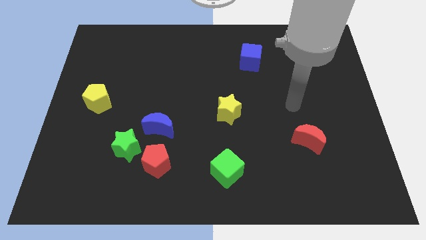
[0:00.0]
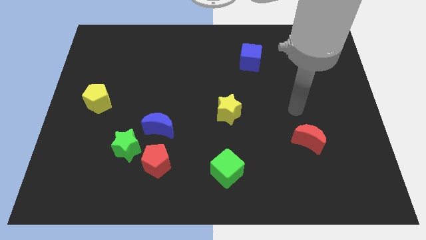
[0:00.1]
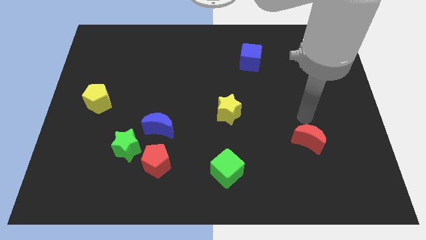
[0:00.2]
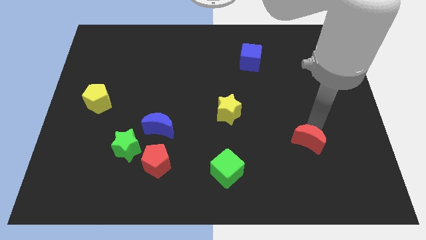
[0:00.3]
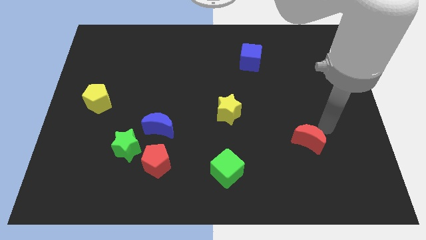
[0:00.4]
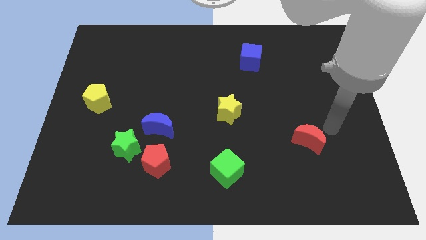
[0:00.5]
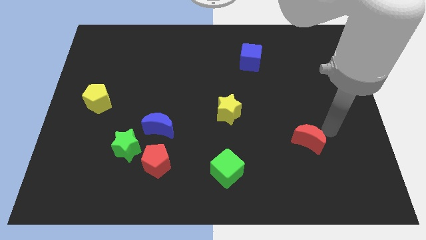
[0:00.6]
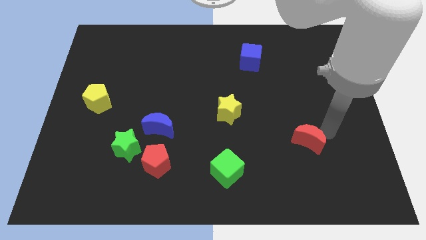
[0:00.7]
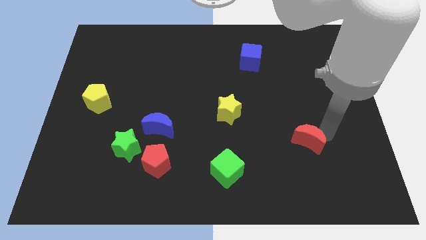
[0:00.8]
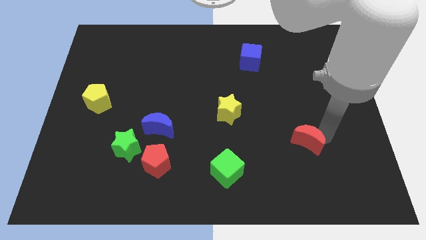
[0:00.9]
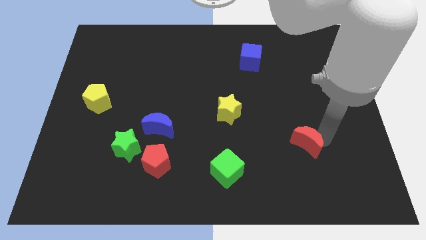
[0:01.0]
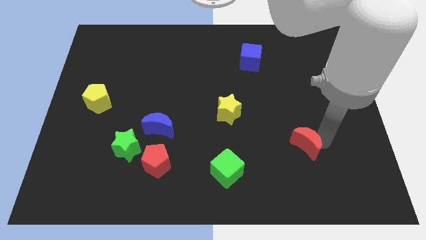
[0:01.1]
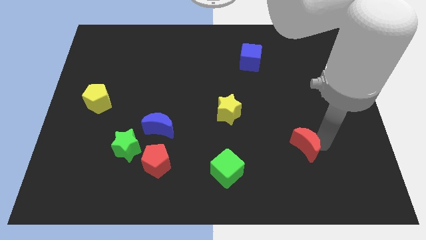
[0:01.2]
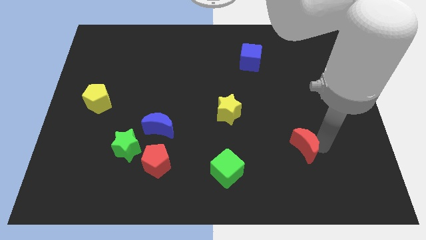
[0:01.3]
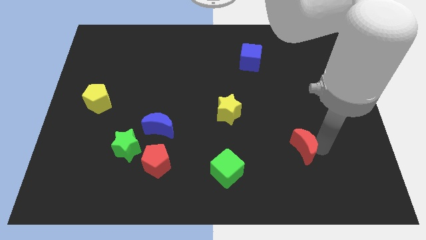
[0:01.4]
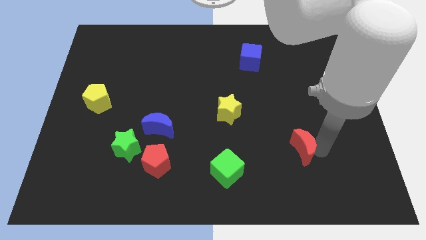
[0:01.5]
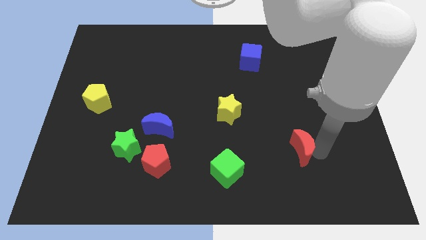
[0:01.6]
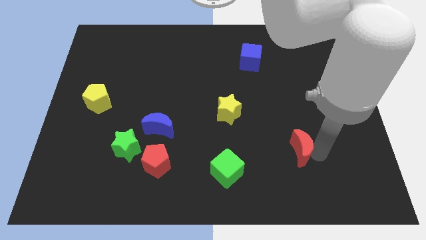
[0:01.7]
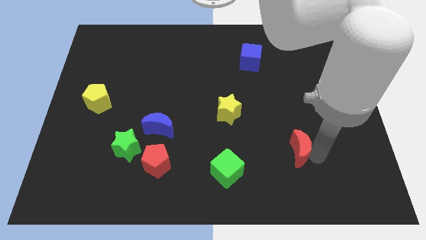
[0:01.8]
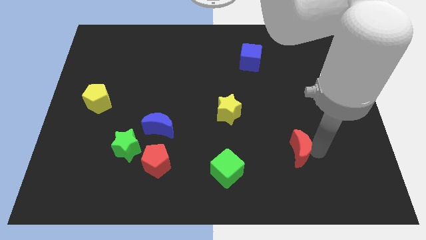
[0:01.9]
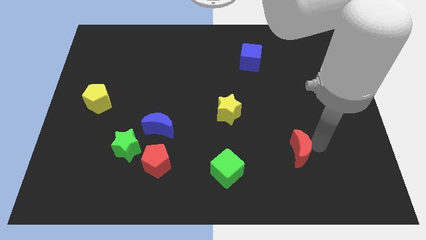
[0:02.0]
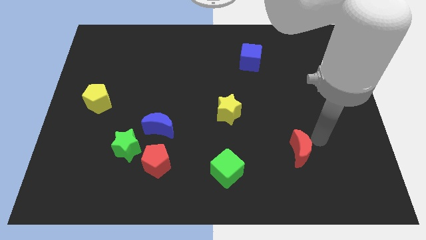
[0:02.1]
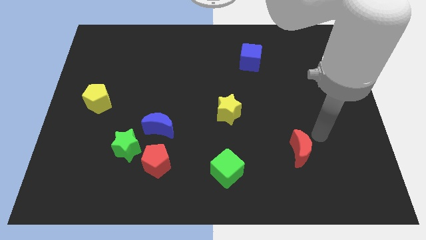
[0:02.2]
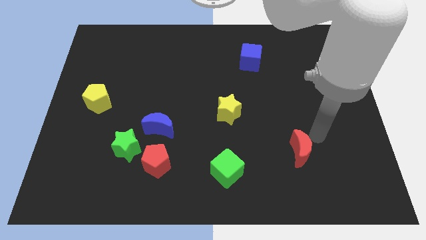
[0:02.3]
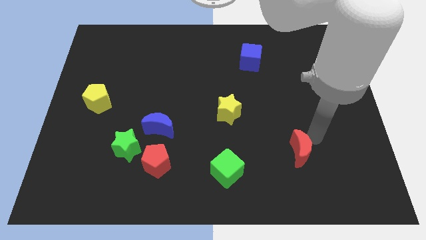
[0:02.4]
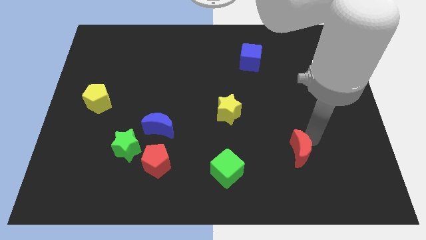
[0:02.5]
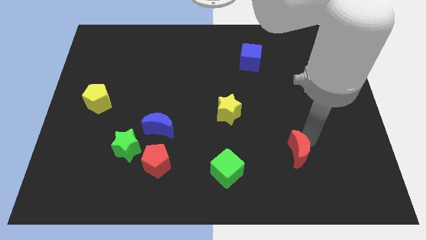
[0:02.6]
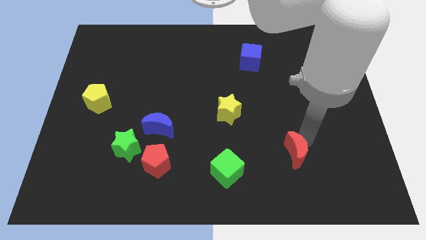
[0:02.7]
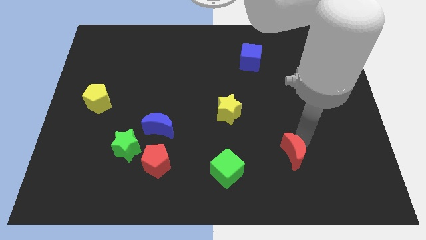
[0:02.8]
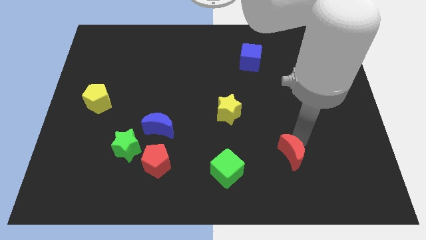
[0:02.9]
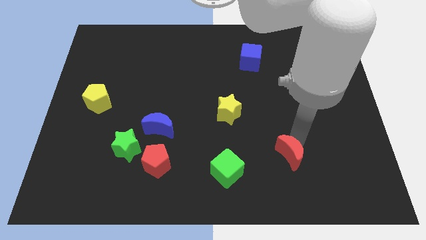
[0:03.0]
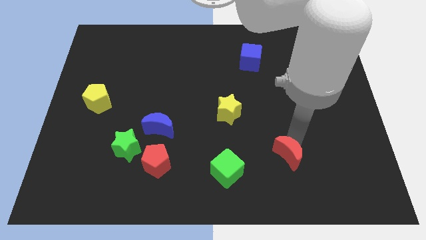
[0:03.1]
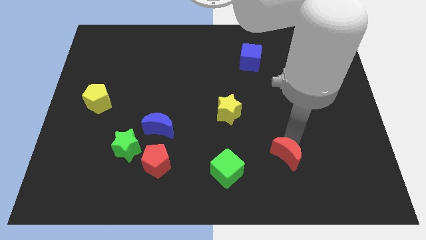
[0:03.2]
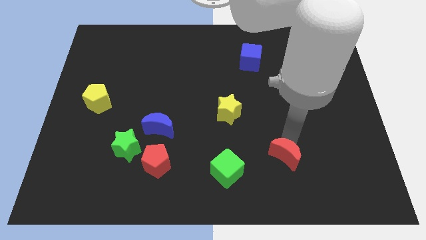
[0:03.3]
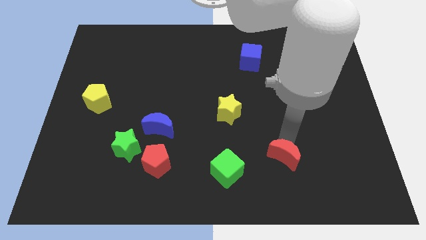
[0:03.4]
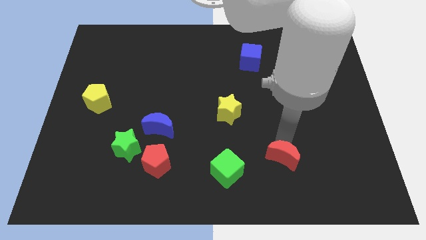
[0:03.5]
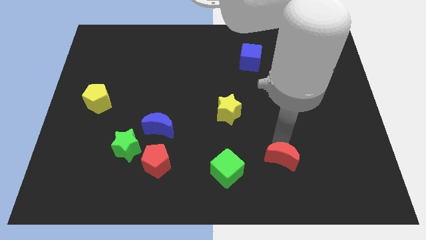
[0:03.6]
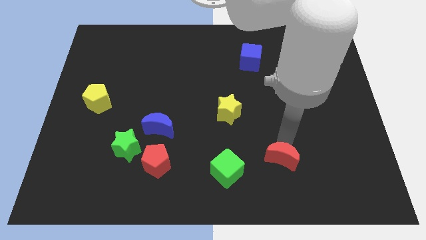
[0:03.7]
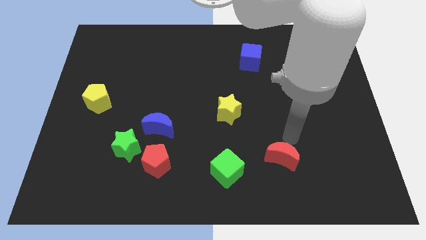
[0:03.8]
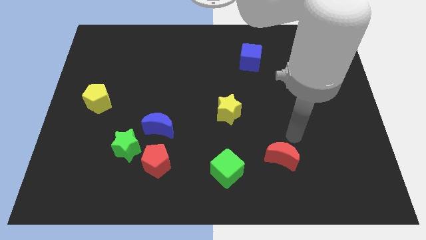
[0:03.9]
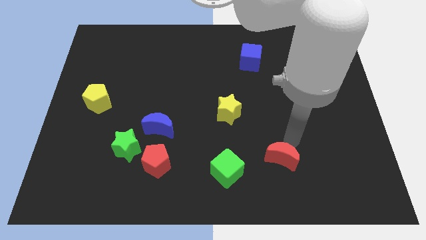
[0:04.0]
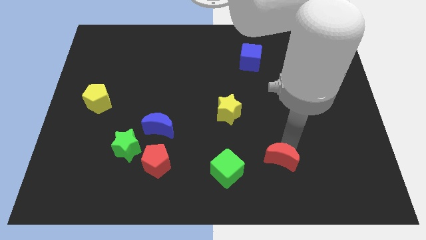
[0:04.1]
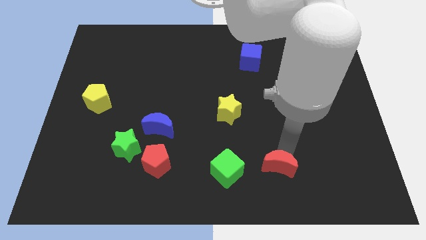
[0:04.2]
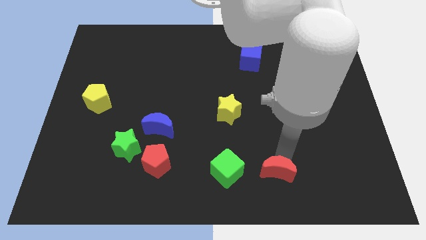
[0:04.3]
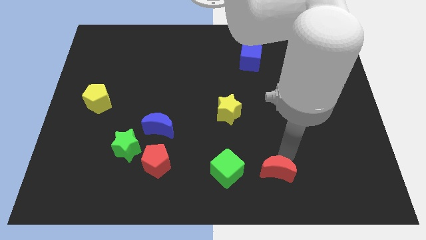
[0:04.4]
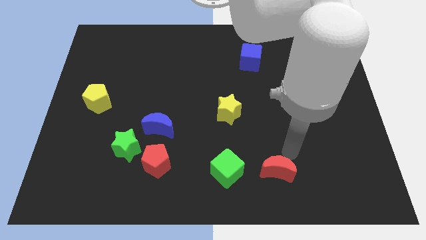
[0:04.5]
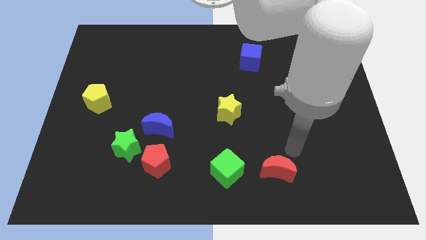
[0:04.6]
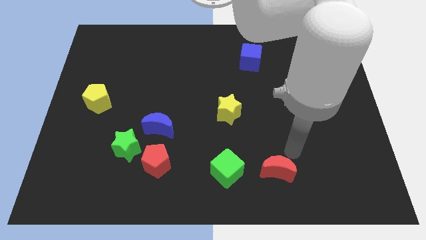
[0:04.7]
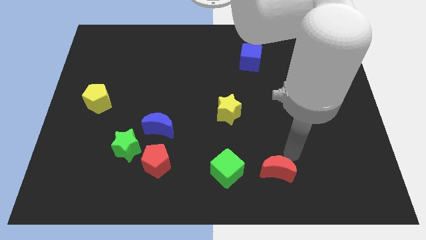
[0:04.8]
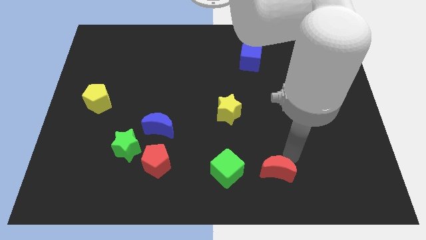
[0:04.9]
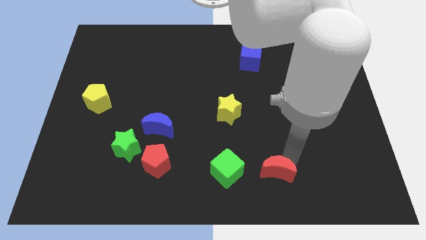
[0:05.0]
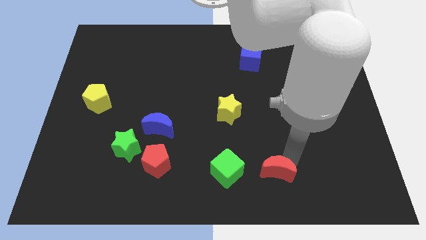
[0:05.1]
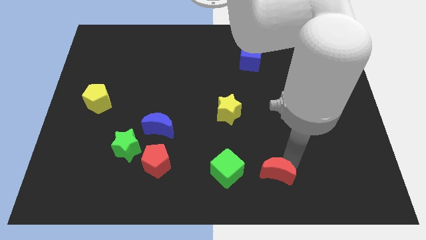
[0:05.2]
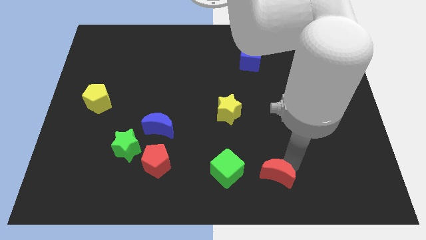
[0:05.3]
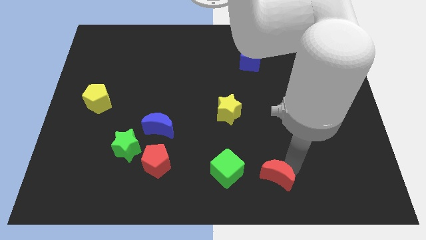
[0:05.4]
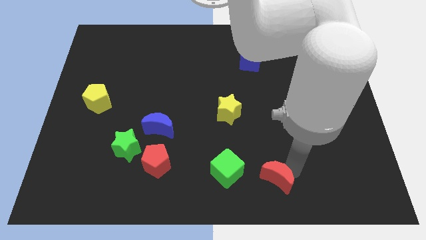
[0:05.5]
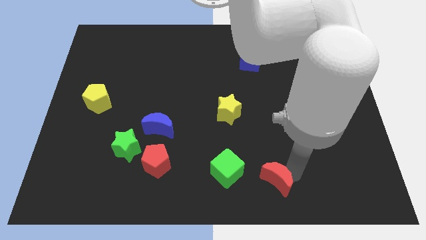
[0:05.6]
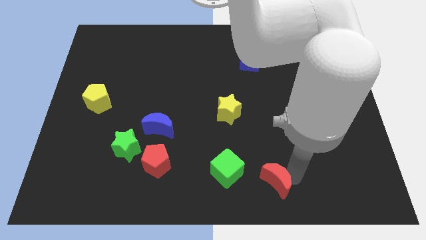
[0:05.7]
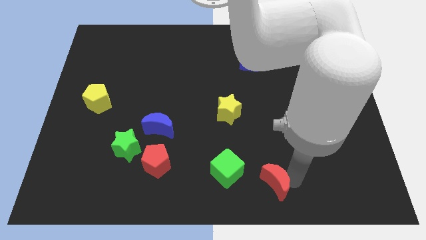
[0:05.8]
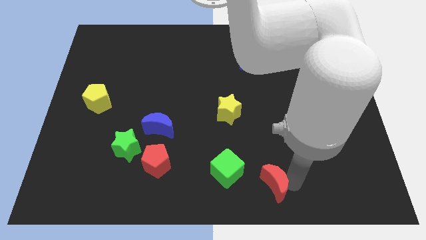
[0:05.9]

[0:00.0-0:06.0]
move the red moon to the bottom side

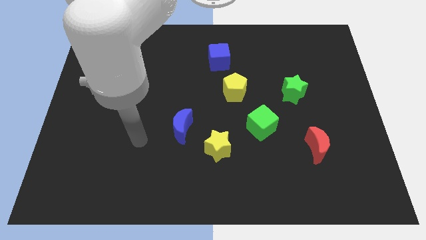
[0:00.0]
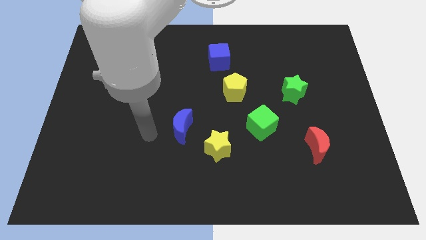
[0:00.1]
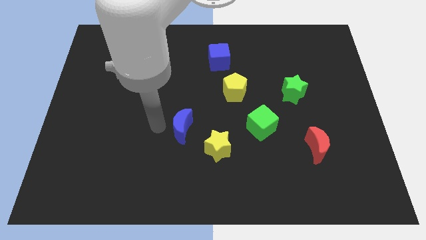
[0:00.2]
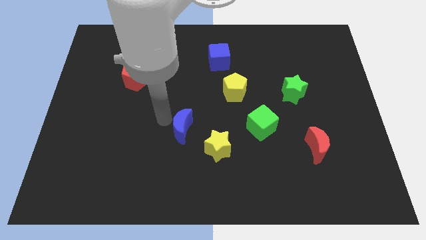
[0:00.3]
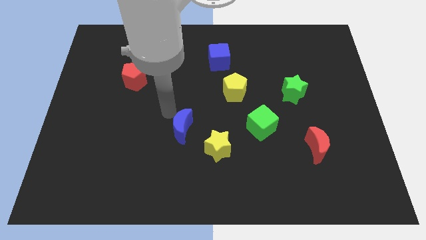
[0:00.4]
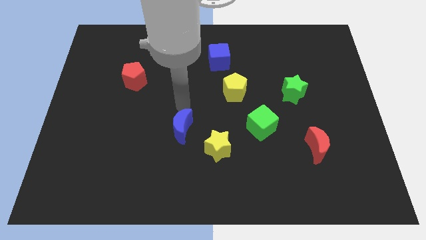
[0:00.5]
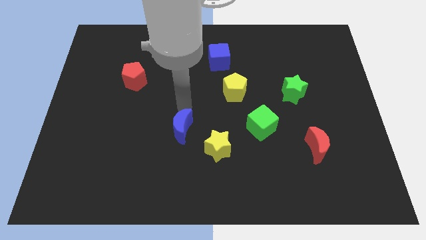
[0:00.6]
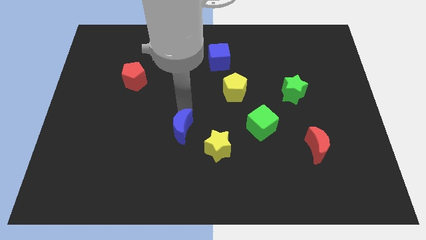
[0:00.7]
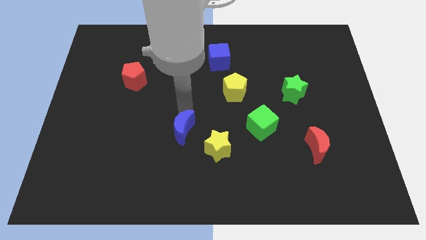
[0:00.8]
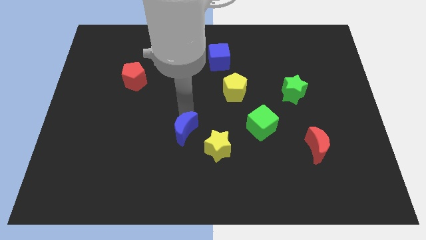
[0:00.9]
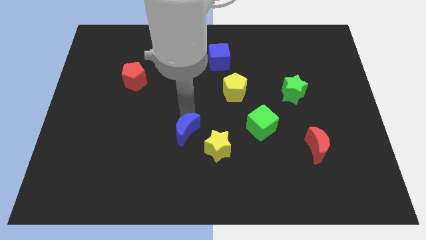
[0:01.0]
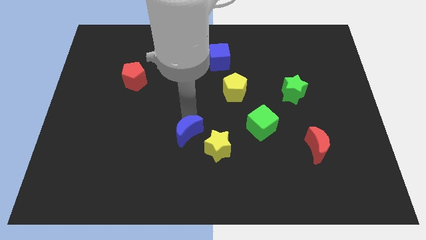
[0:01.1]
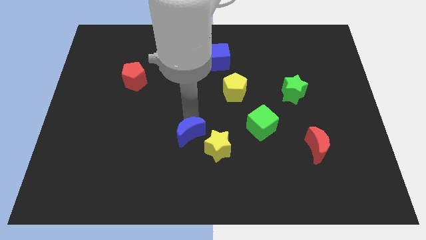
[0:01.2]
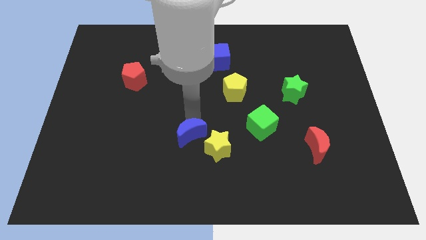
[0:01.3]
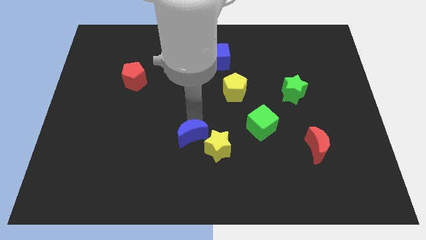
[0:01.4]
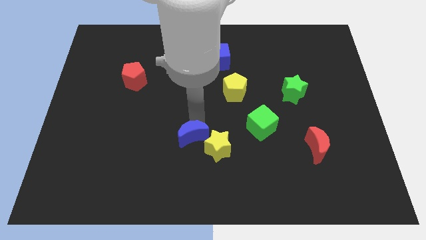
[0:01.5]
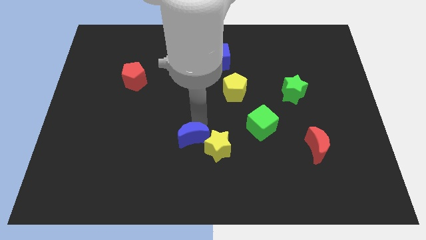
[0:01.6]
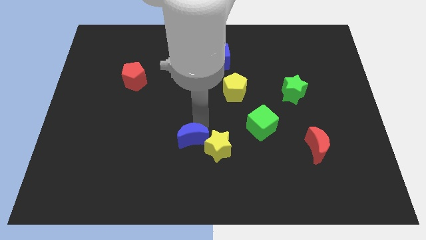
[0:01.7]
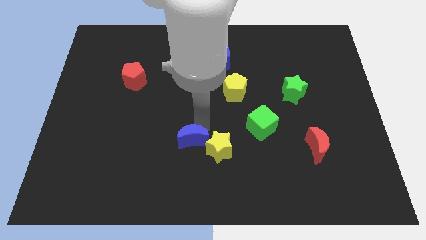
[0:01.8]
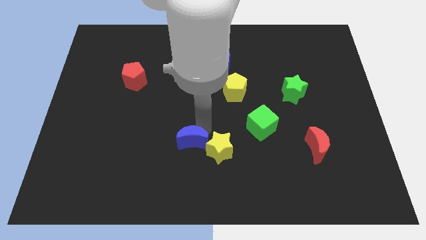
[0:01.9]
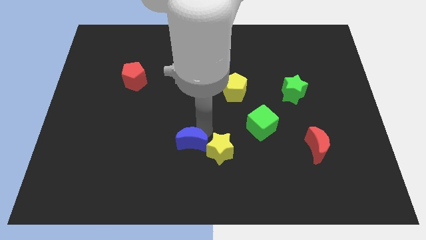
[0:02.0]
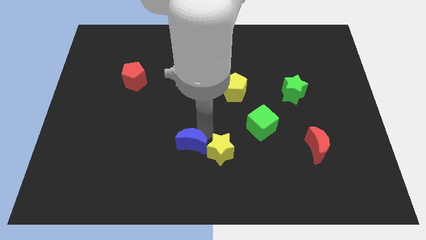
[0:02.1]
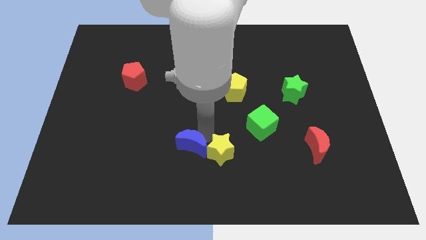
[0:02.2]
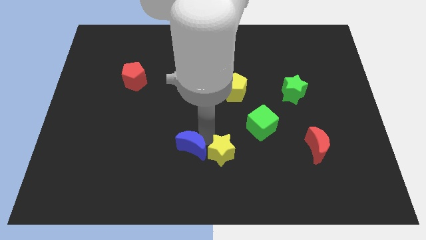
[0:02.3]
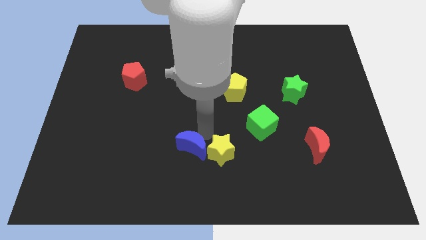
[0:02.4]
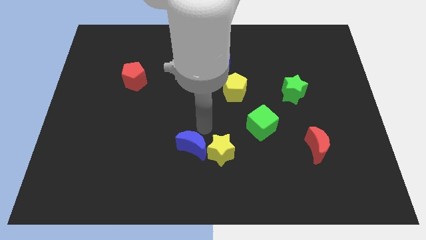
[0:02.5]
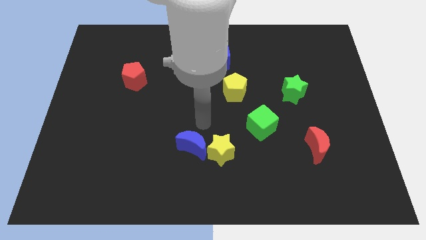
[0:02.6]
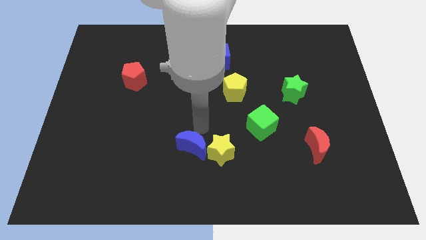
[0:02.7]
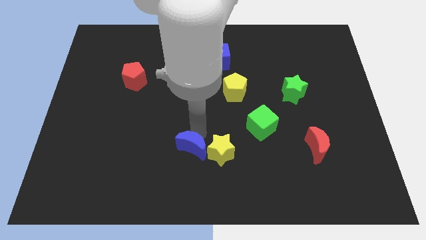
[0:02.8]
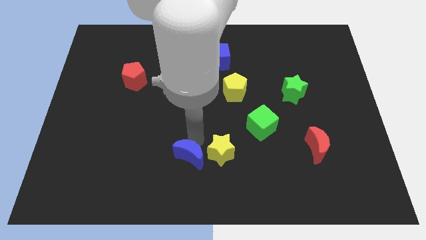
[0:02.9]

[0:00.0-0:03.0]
move the blue moon to the bottom side
